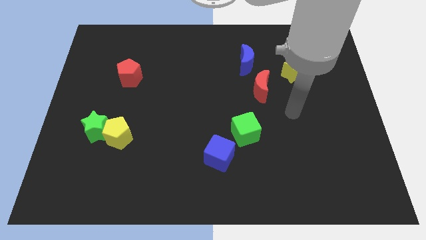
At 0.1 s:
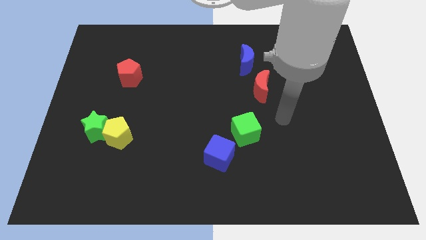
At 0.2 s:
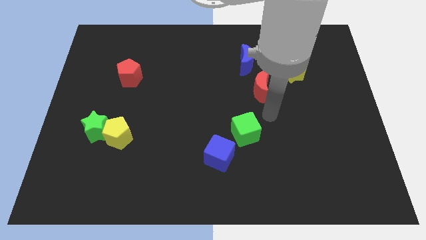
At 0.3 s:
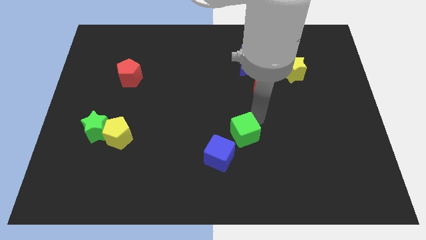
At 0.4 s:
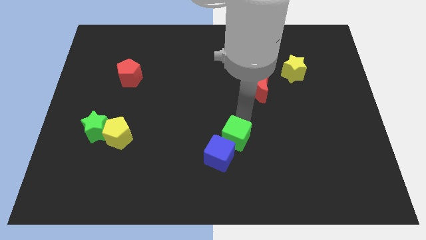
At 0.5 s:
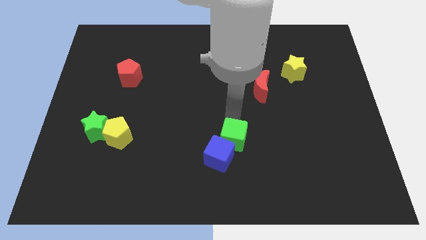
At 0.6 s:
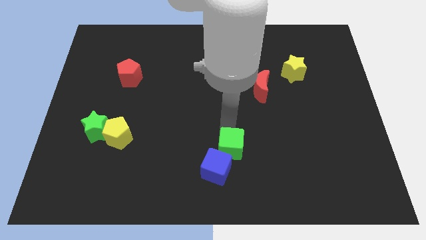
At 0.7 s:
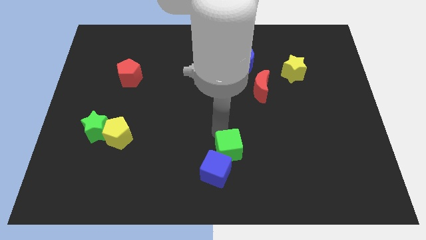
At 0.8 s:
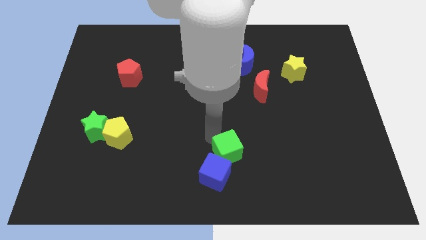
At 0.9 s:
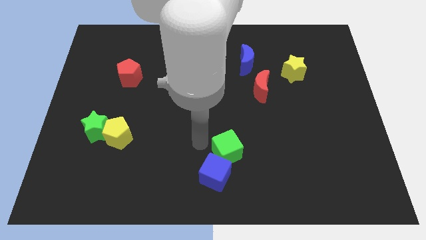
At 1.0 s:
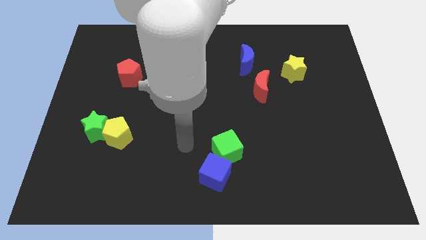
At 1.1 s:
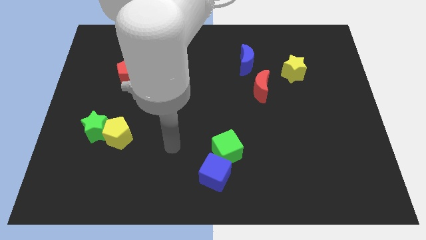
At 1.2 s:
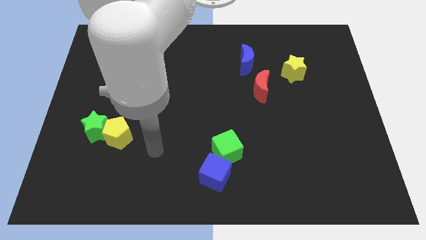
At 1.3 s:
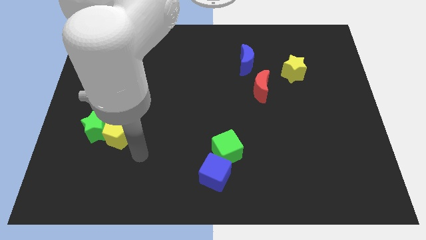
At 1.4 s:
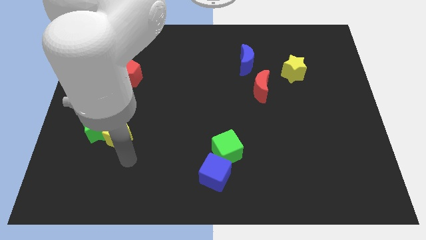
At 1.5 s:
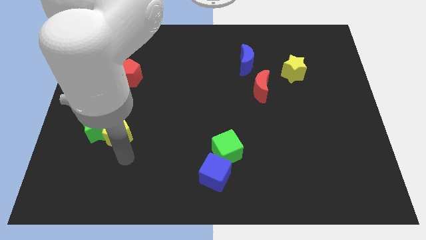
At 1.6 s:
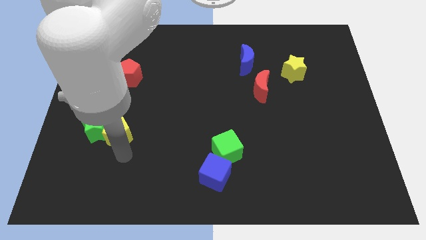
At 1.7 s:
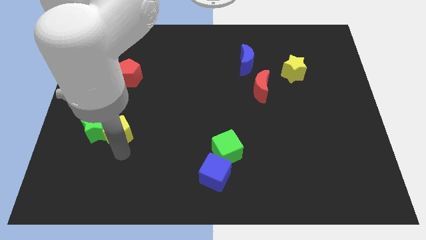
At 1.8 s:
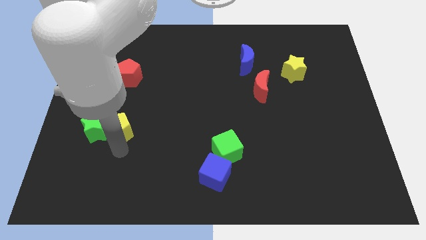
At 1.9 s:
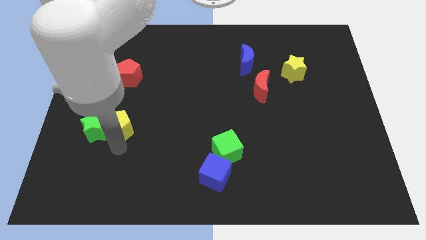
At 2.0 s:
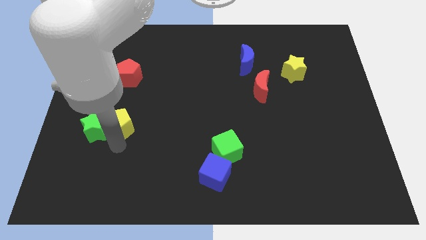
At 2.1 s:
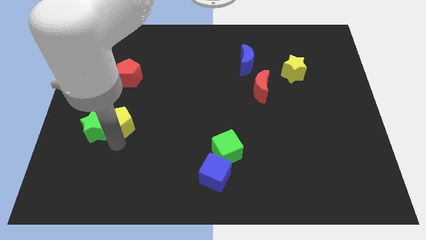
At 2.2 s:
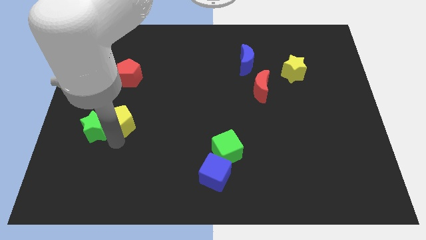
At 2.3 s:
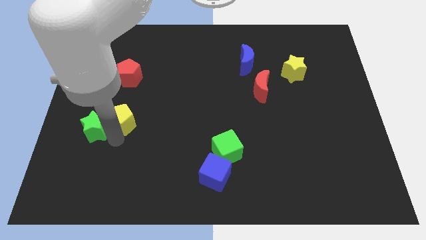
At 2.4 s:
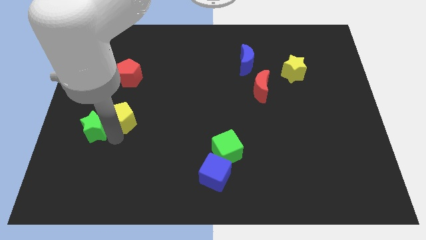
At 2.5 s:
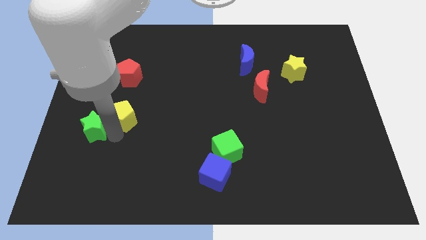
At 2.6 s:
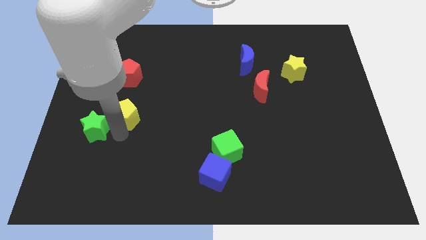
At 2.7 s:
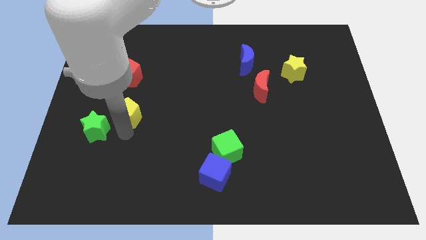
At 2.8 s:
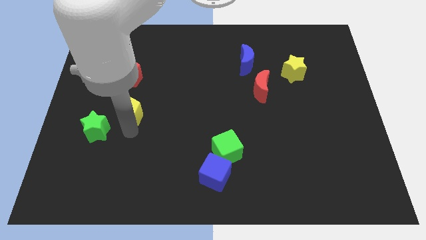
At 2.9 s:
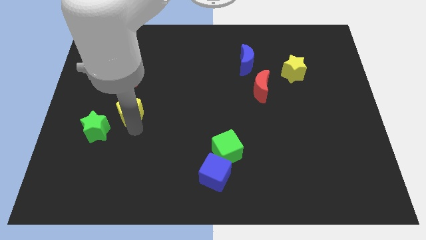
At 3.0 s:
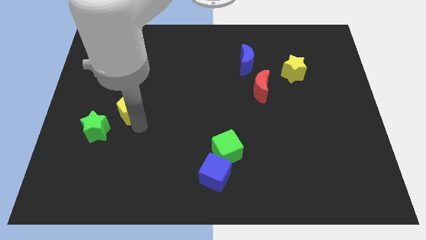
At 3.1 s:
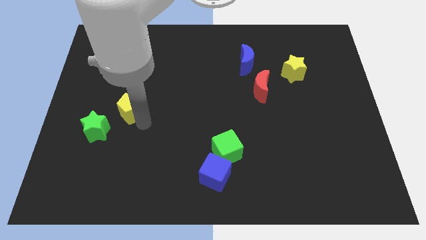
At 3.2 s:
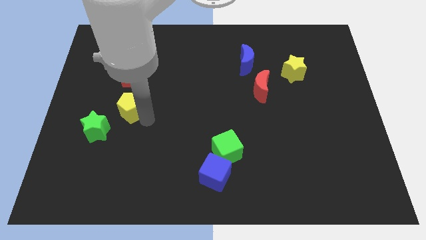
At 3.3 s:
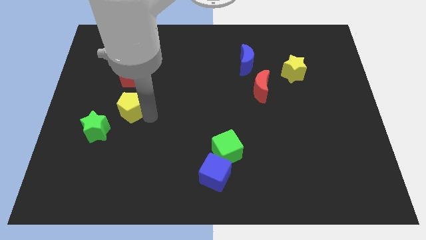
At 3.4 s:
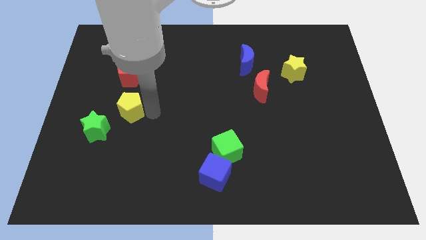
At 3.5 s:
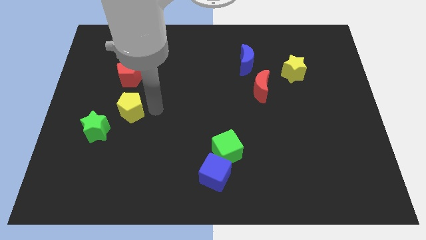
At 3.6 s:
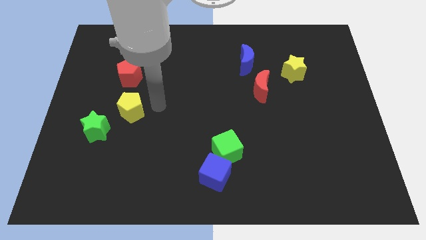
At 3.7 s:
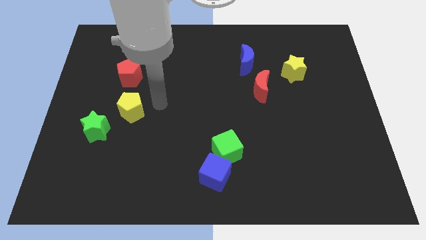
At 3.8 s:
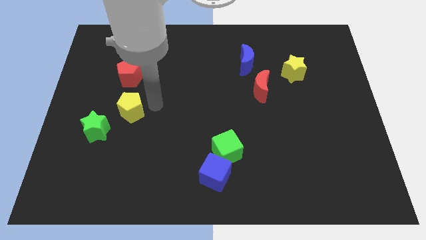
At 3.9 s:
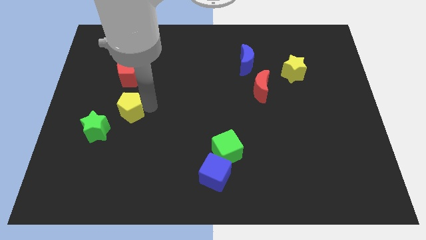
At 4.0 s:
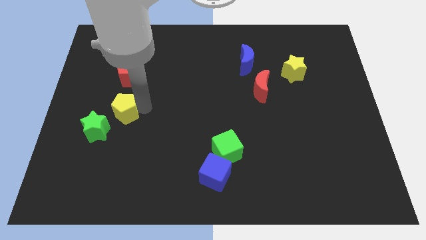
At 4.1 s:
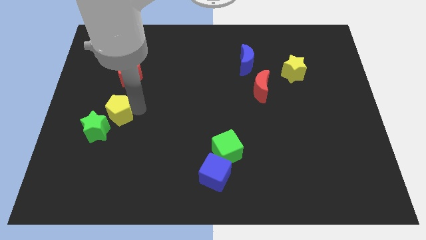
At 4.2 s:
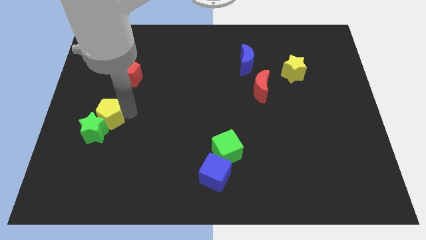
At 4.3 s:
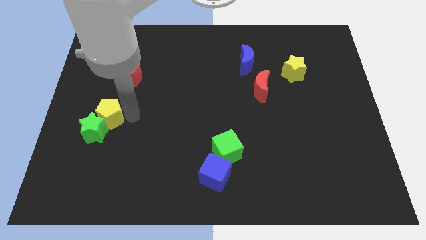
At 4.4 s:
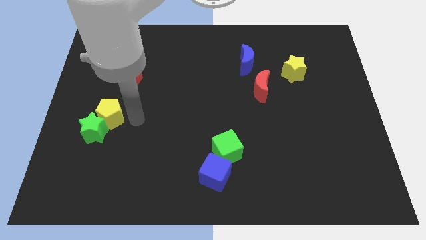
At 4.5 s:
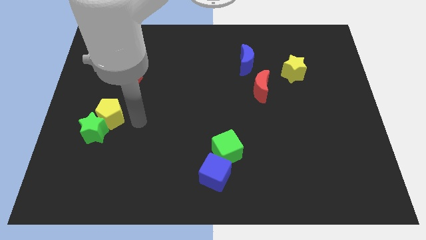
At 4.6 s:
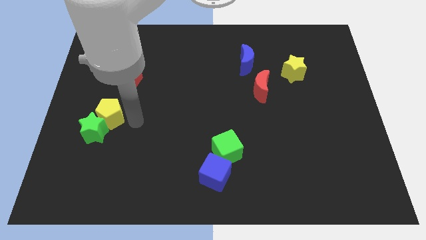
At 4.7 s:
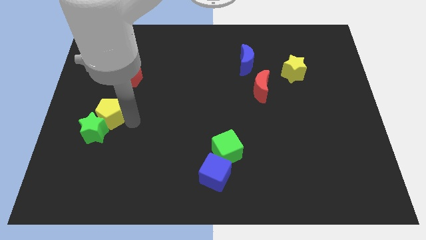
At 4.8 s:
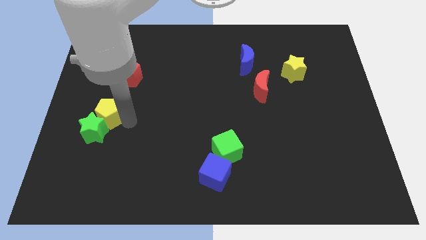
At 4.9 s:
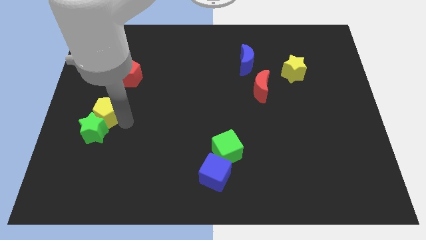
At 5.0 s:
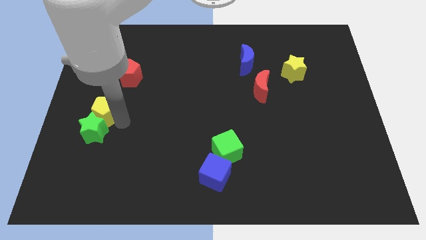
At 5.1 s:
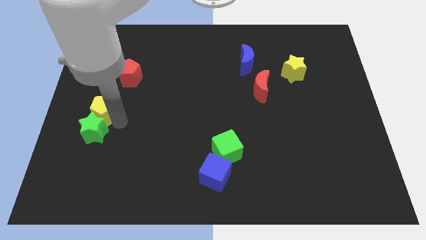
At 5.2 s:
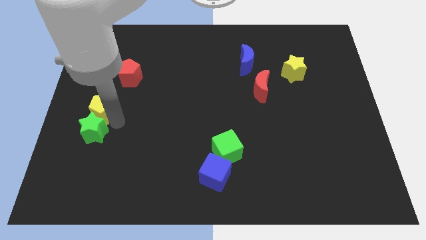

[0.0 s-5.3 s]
put the yellow pentagon to the left side of the board

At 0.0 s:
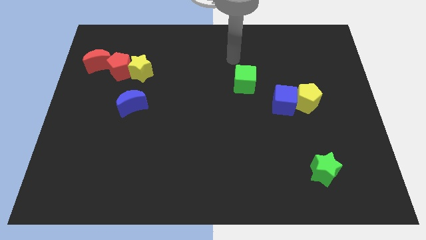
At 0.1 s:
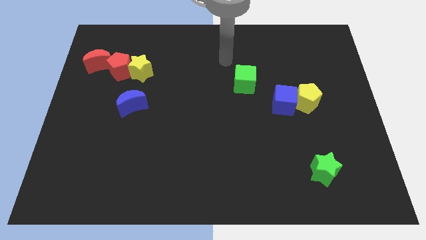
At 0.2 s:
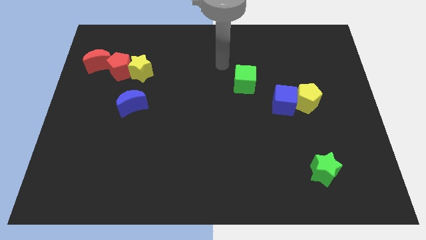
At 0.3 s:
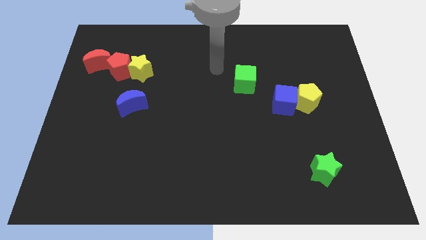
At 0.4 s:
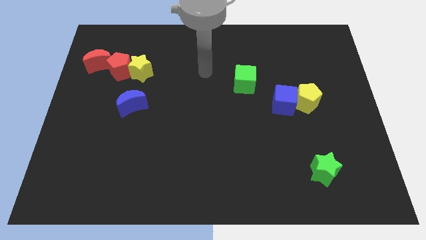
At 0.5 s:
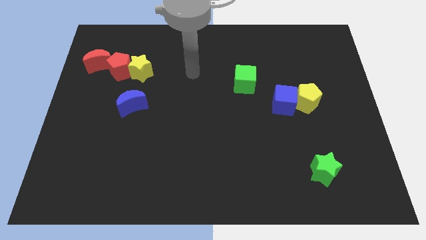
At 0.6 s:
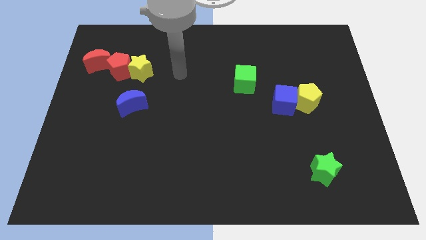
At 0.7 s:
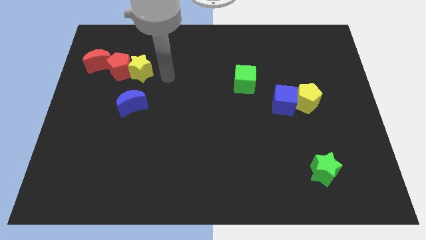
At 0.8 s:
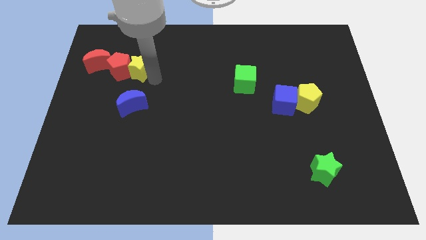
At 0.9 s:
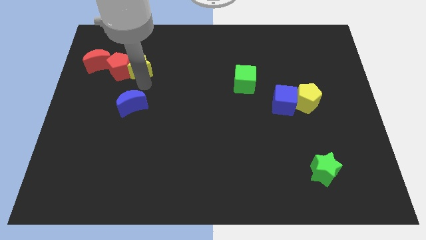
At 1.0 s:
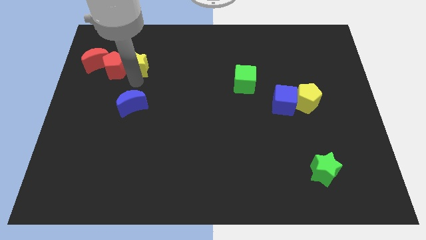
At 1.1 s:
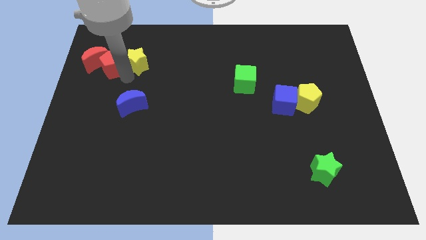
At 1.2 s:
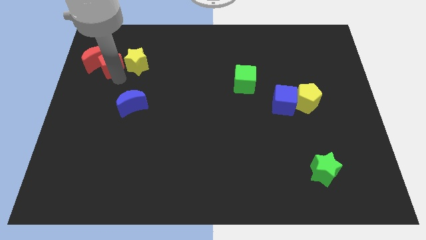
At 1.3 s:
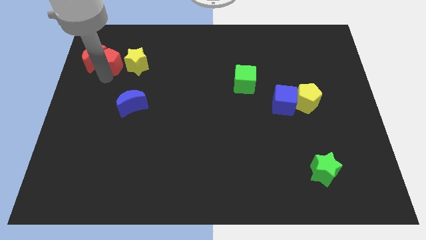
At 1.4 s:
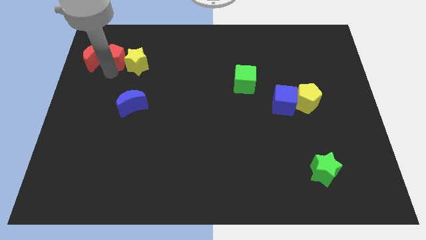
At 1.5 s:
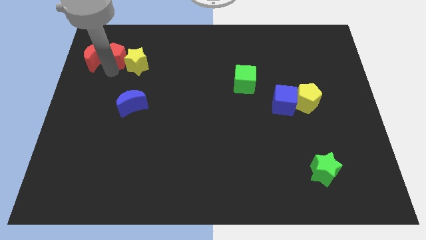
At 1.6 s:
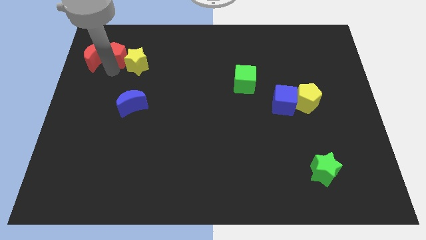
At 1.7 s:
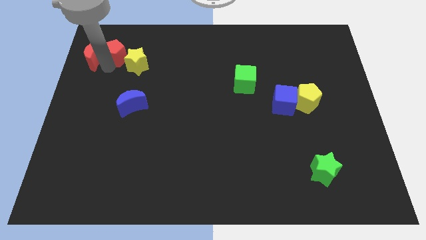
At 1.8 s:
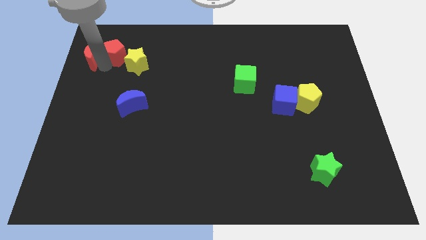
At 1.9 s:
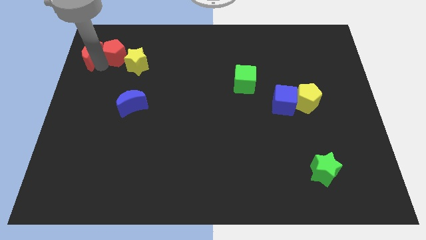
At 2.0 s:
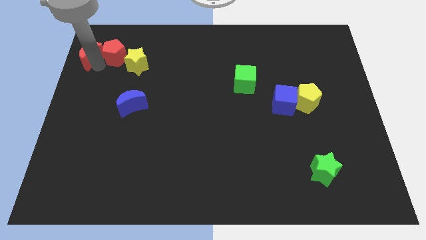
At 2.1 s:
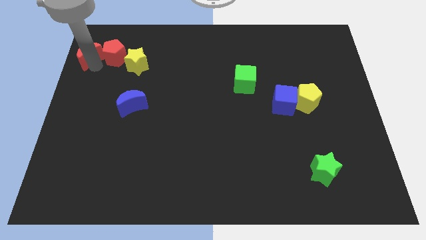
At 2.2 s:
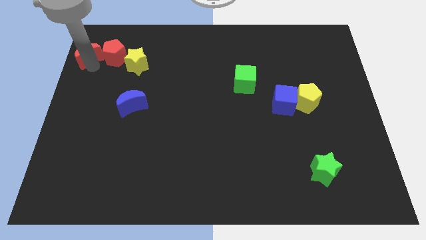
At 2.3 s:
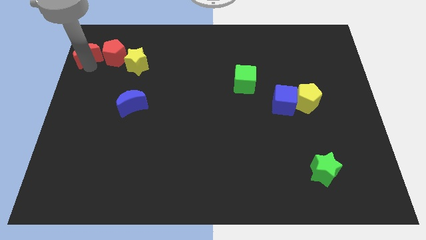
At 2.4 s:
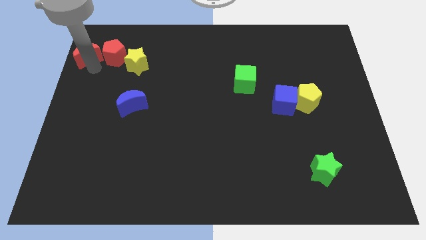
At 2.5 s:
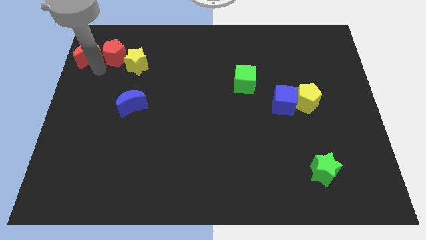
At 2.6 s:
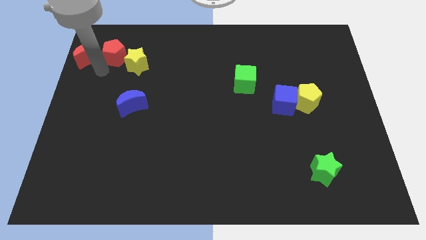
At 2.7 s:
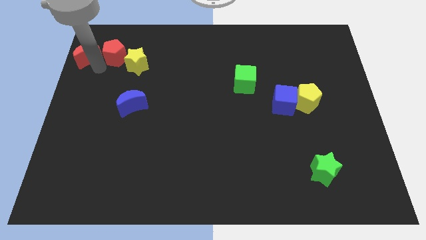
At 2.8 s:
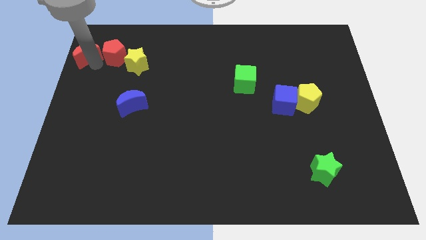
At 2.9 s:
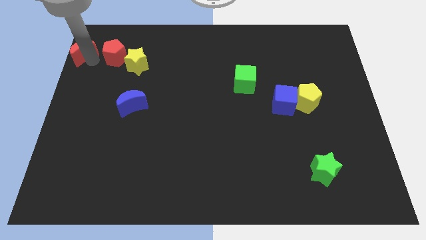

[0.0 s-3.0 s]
slide the red moon to the upper left corner
